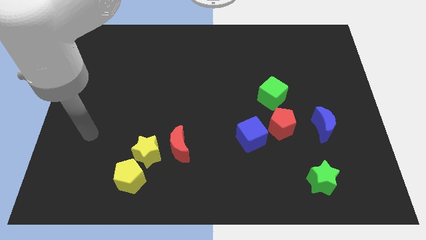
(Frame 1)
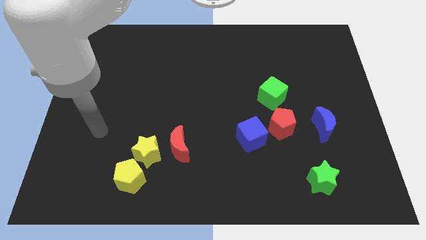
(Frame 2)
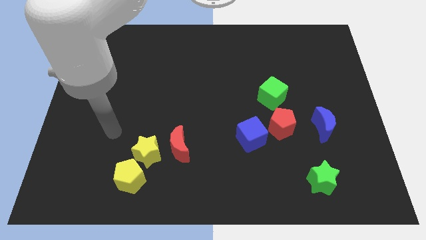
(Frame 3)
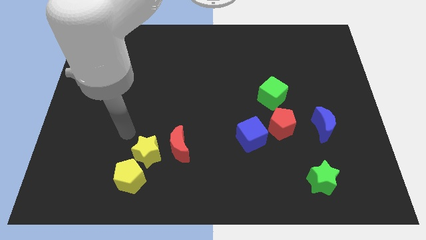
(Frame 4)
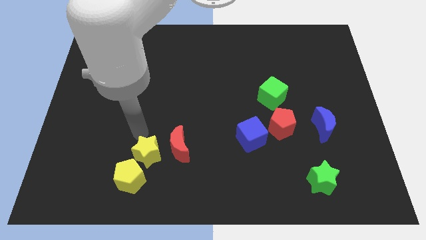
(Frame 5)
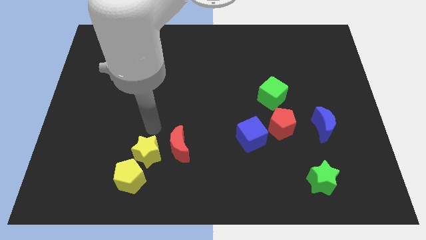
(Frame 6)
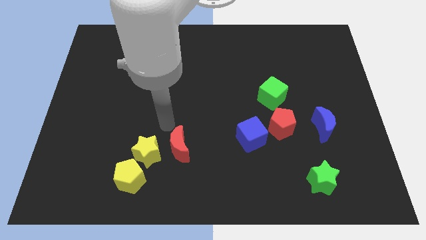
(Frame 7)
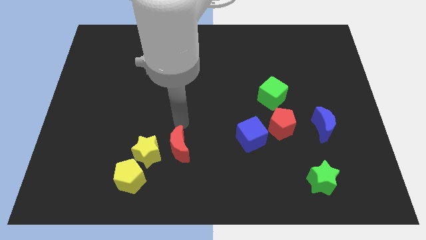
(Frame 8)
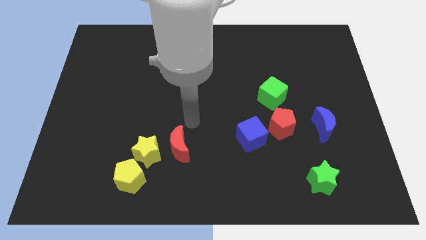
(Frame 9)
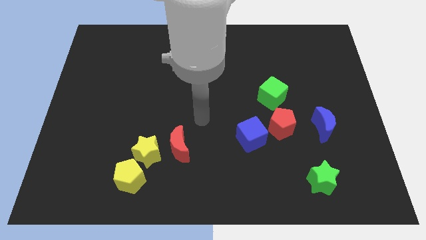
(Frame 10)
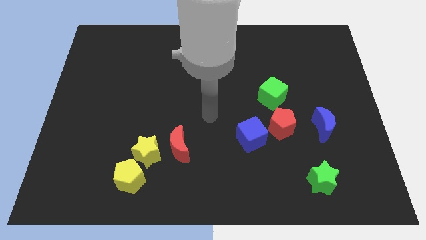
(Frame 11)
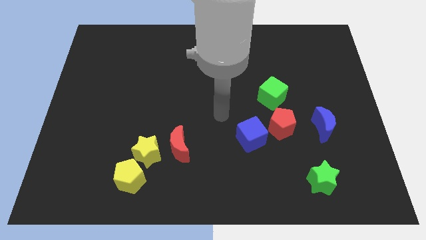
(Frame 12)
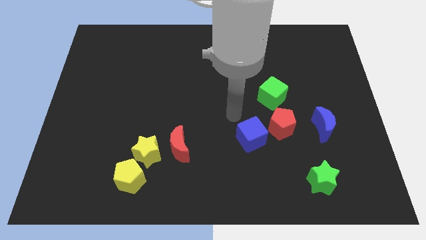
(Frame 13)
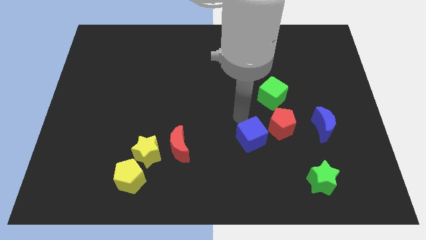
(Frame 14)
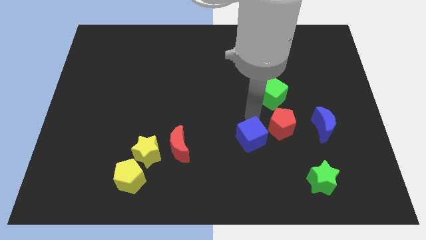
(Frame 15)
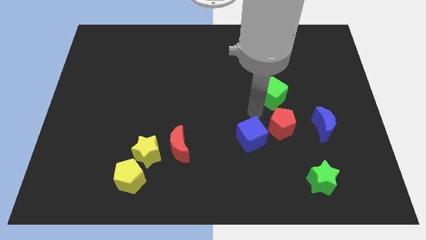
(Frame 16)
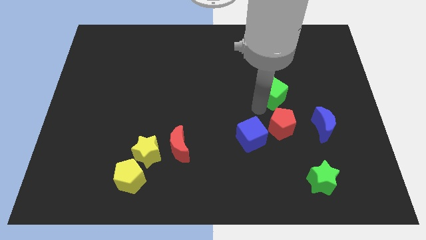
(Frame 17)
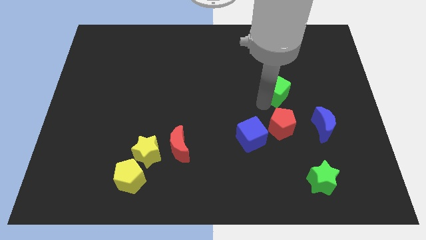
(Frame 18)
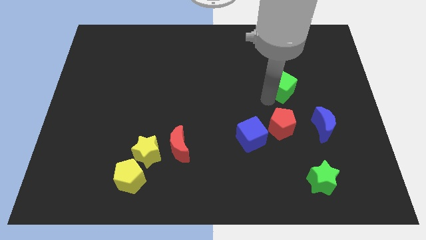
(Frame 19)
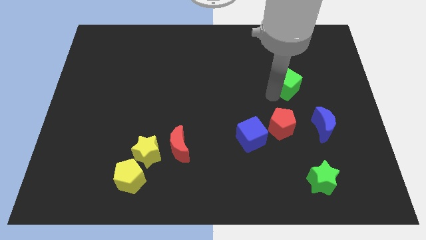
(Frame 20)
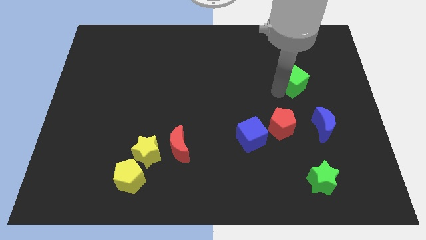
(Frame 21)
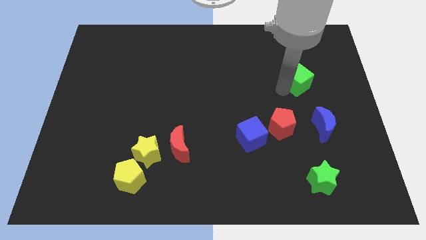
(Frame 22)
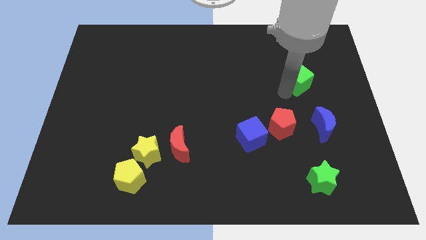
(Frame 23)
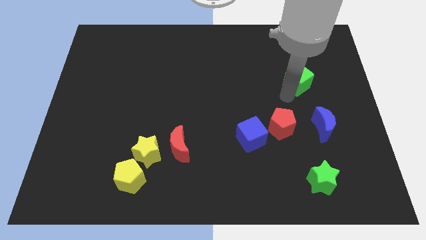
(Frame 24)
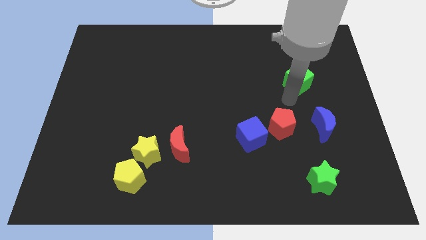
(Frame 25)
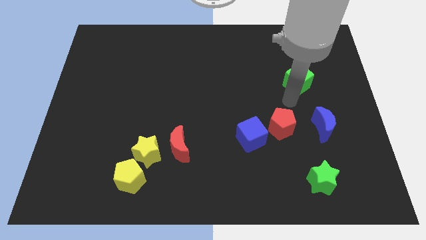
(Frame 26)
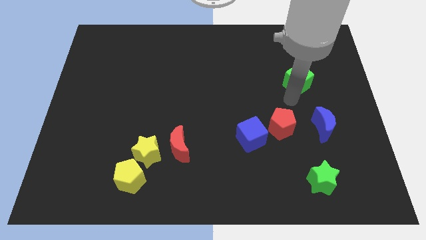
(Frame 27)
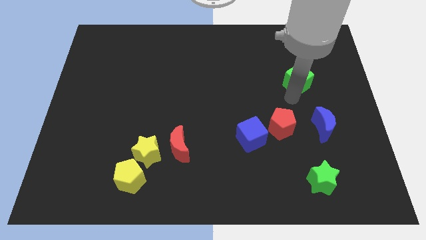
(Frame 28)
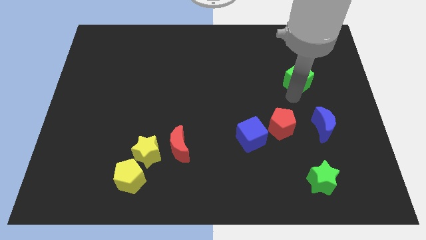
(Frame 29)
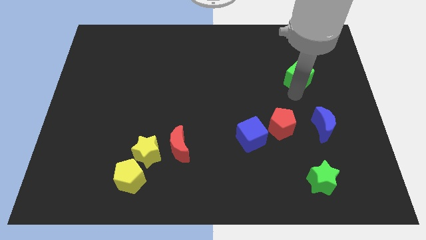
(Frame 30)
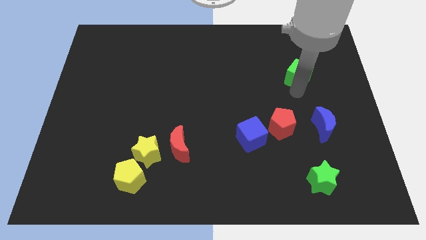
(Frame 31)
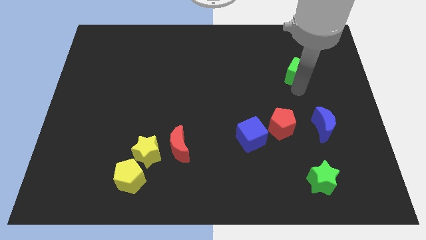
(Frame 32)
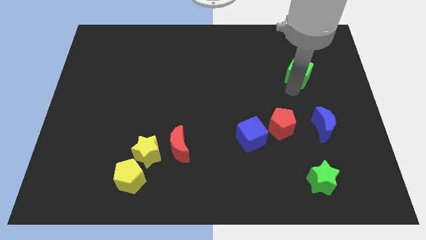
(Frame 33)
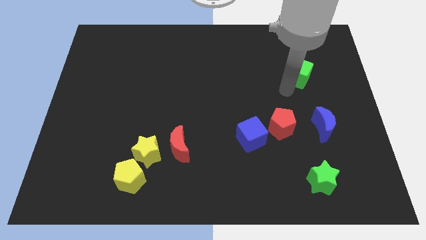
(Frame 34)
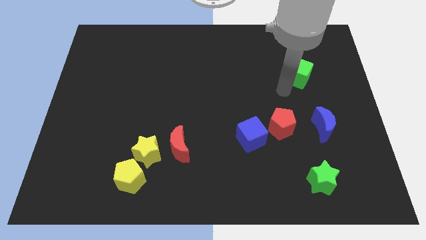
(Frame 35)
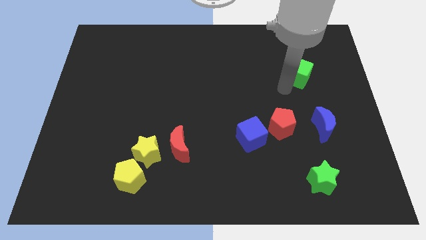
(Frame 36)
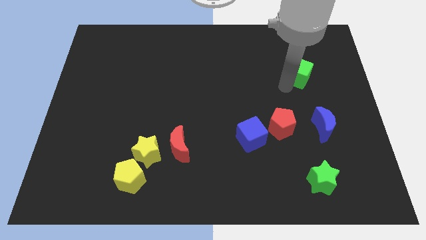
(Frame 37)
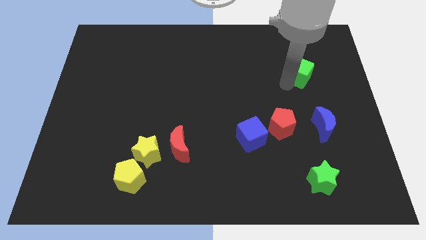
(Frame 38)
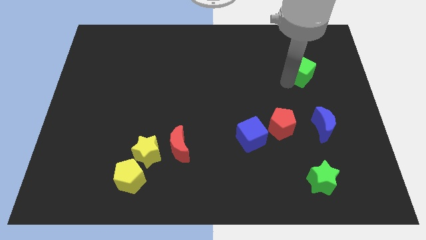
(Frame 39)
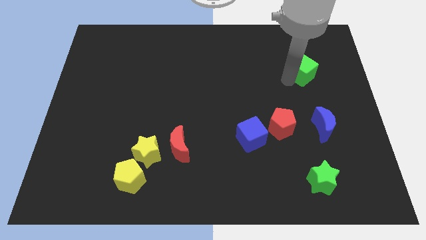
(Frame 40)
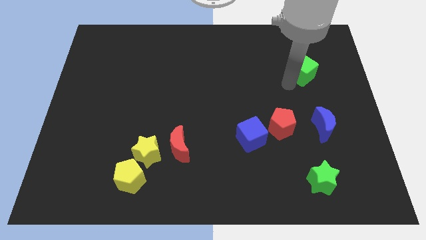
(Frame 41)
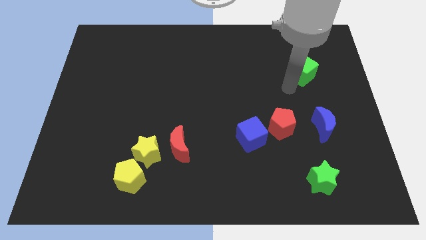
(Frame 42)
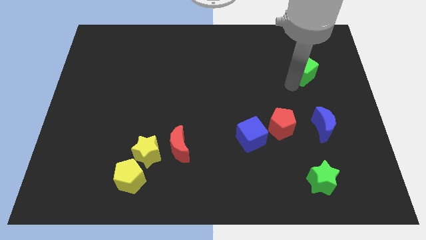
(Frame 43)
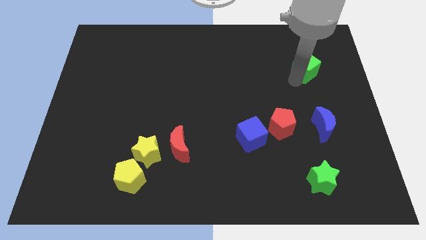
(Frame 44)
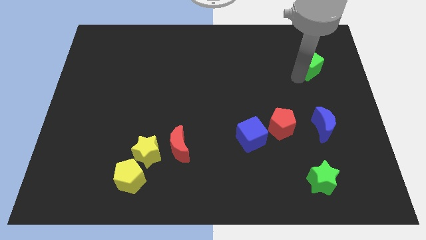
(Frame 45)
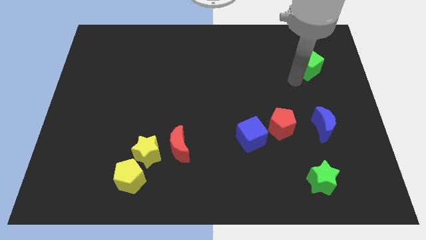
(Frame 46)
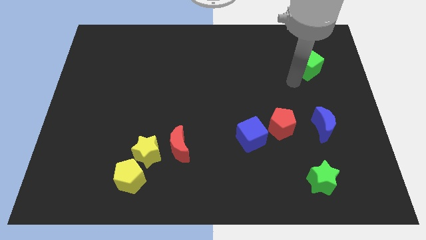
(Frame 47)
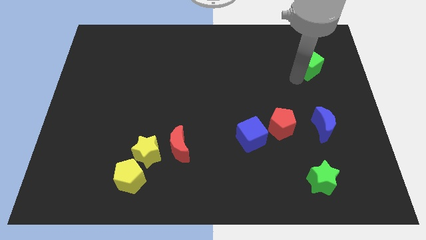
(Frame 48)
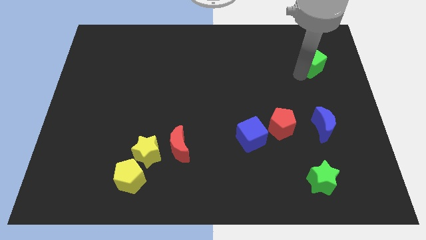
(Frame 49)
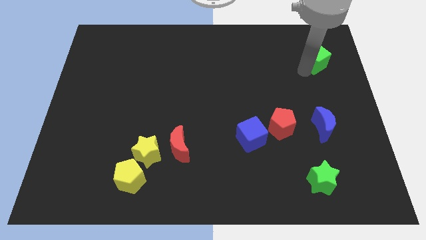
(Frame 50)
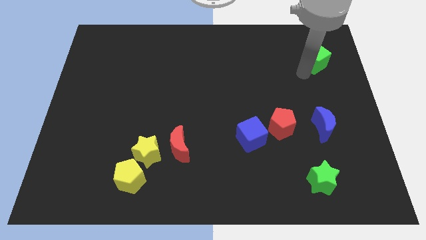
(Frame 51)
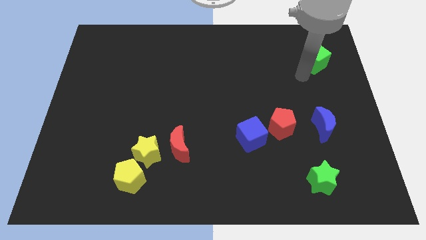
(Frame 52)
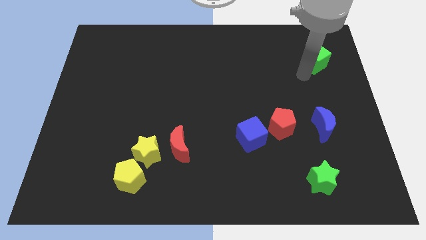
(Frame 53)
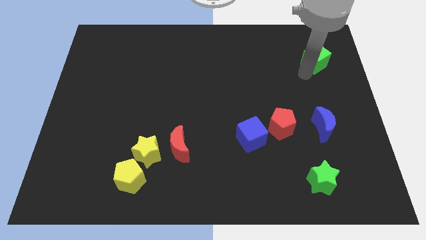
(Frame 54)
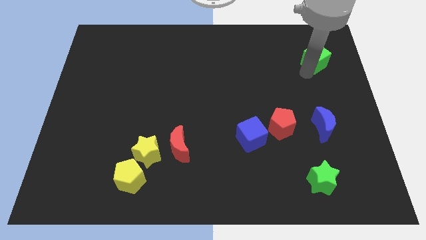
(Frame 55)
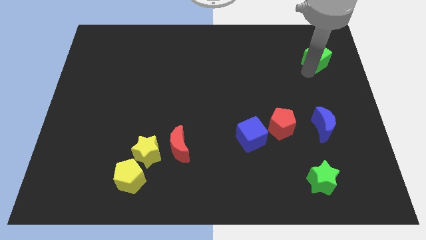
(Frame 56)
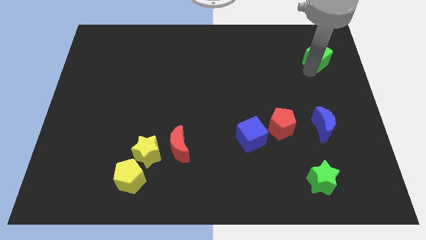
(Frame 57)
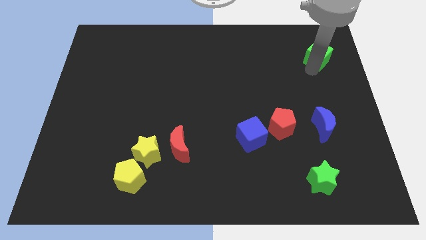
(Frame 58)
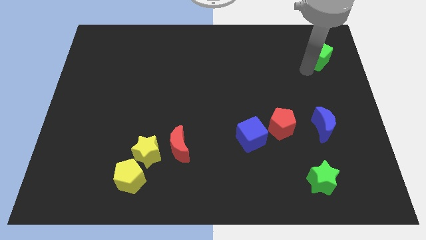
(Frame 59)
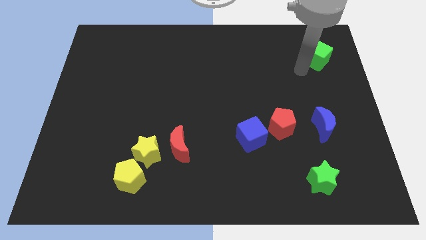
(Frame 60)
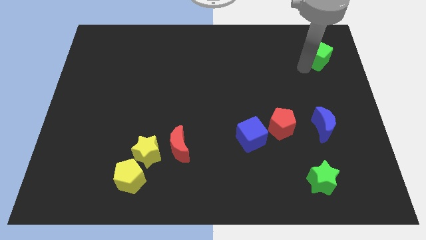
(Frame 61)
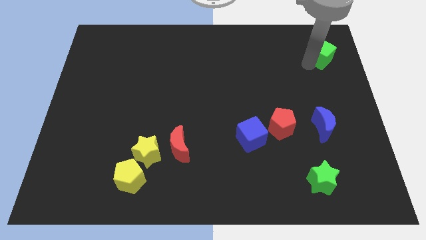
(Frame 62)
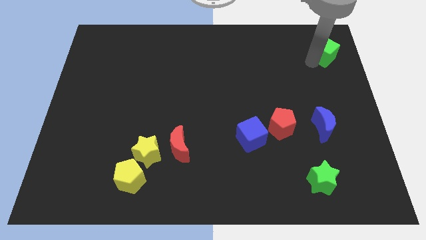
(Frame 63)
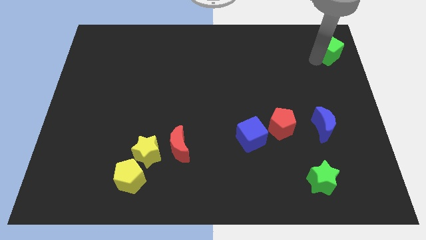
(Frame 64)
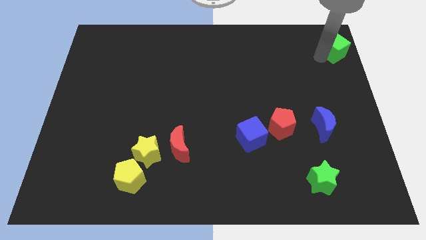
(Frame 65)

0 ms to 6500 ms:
move the green cube to the top right of the board

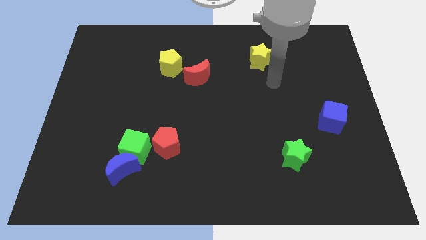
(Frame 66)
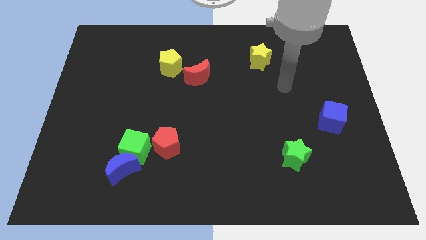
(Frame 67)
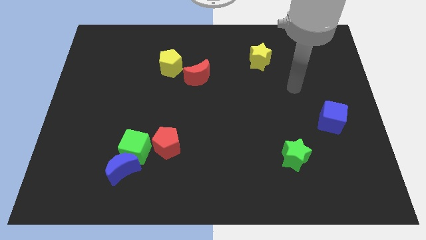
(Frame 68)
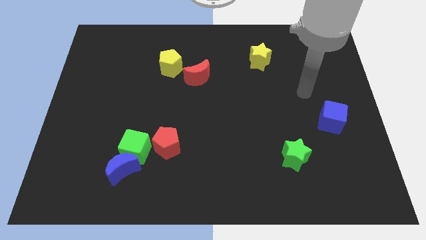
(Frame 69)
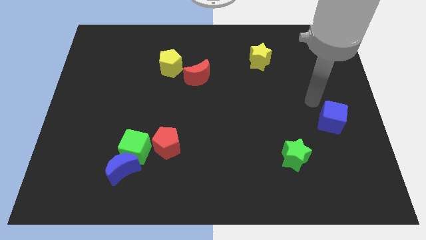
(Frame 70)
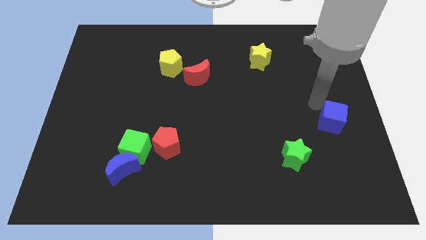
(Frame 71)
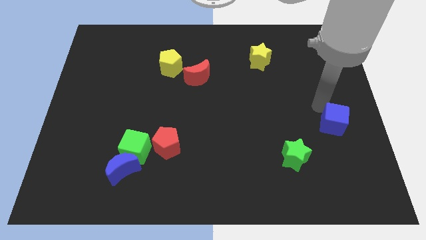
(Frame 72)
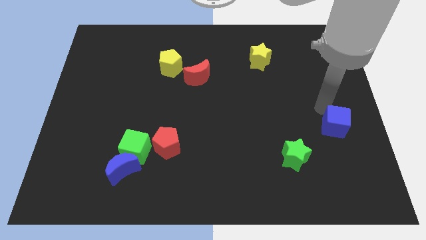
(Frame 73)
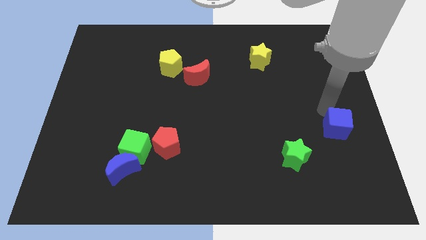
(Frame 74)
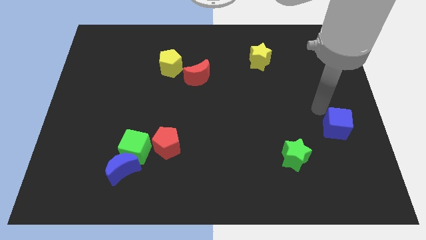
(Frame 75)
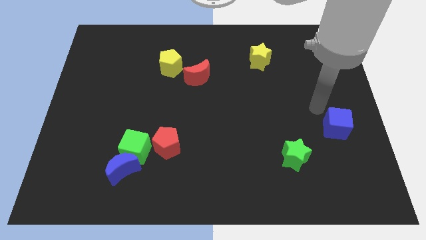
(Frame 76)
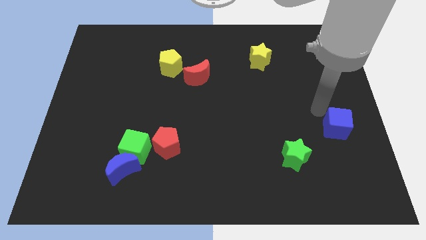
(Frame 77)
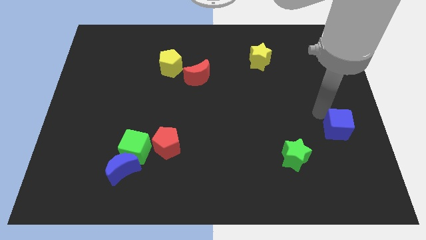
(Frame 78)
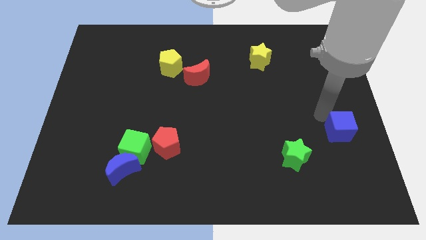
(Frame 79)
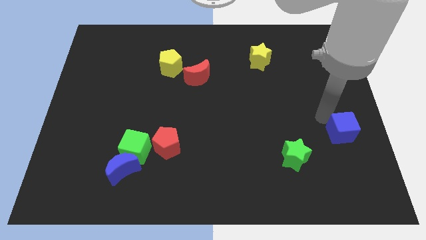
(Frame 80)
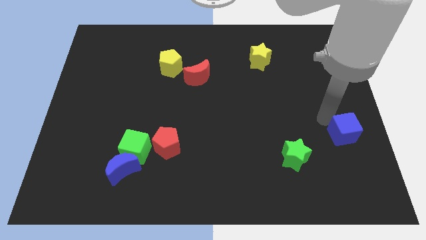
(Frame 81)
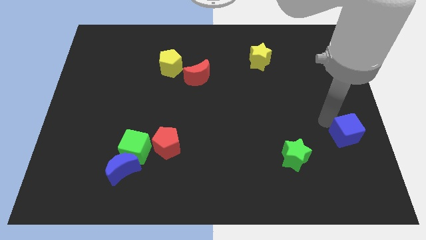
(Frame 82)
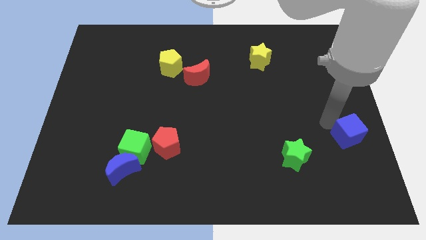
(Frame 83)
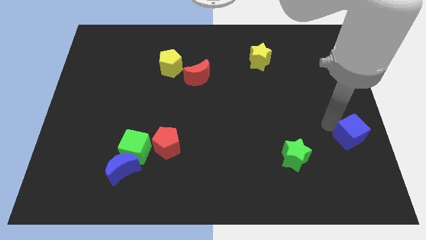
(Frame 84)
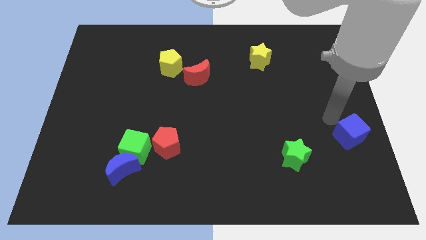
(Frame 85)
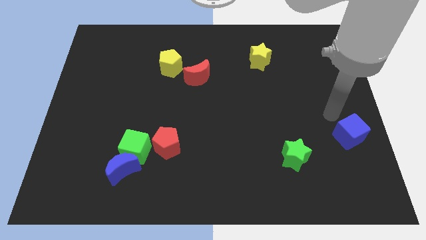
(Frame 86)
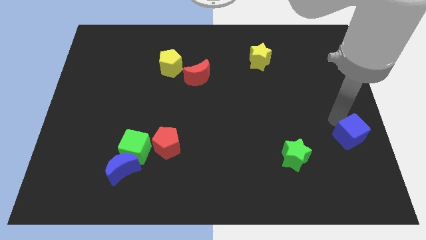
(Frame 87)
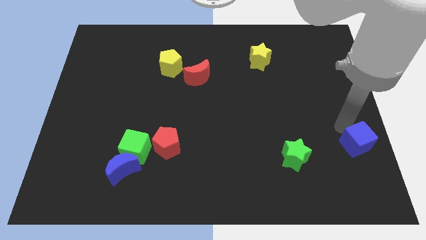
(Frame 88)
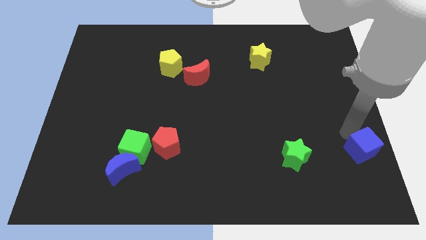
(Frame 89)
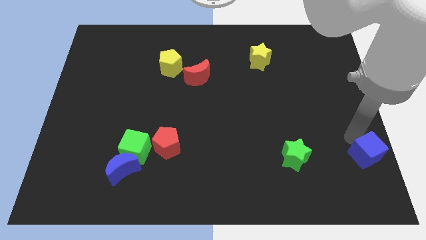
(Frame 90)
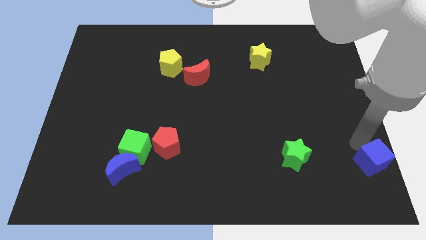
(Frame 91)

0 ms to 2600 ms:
put the blue cube to the lower right corner
